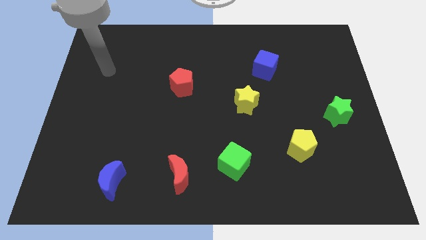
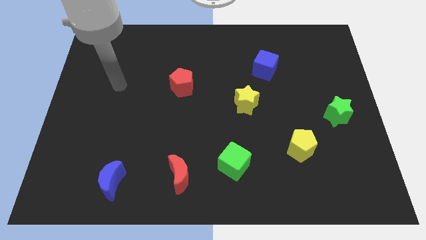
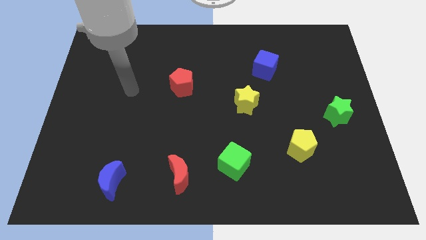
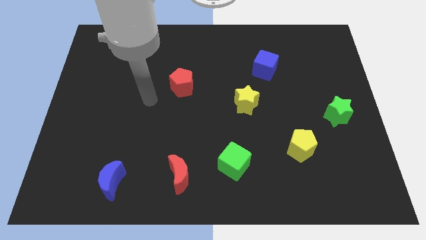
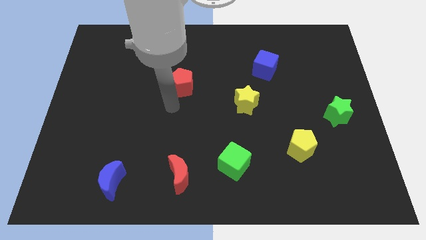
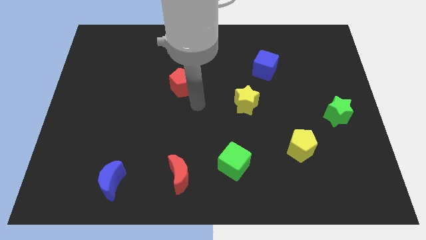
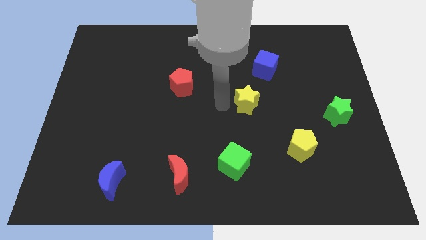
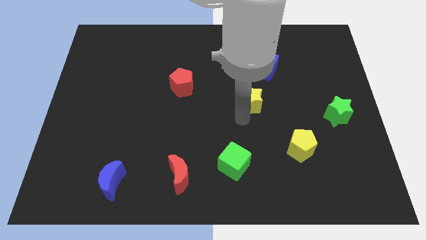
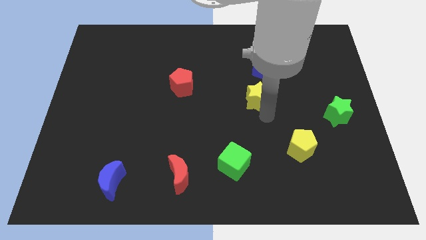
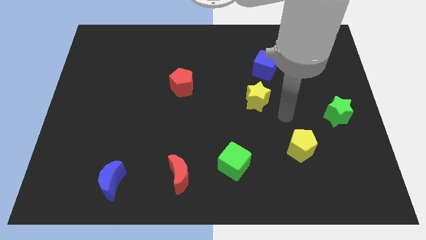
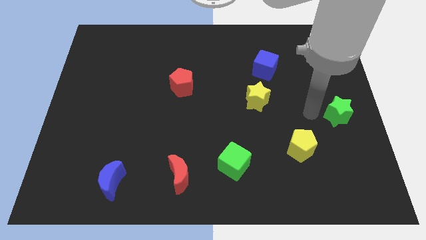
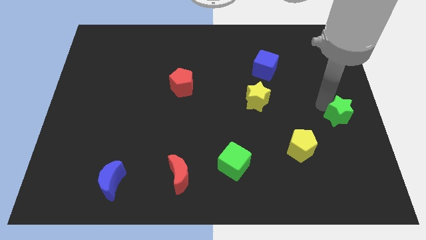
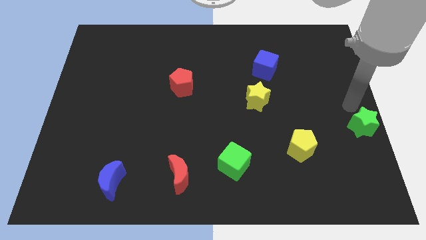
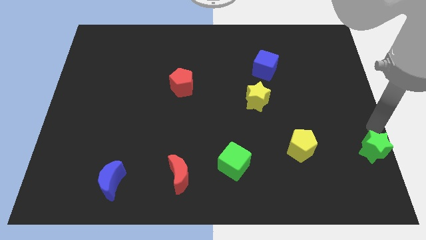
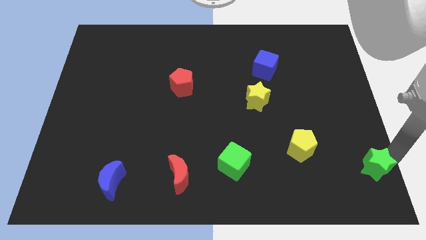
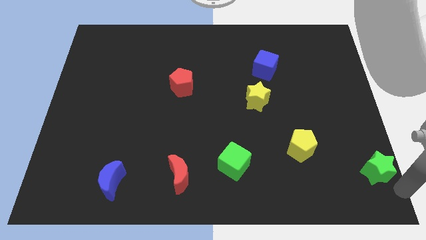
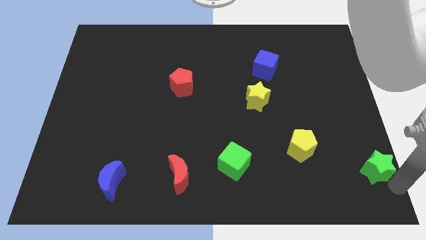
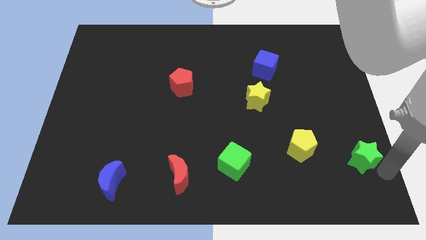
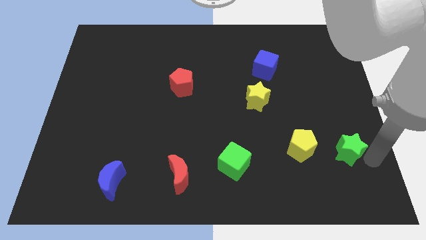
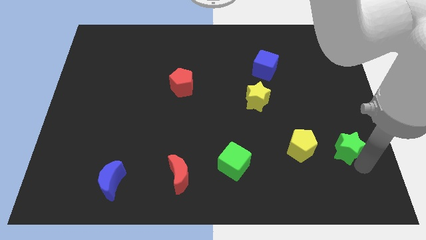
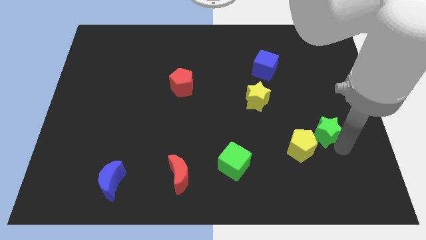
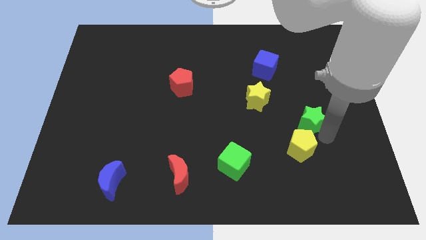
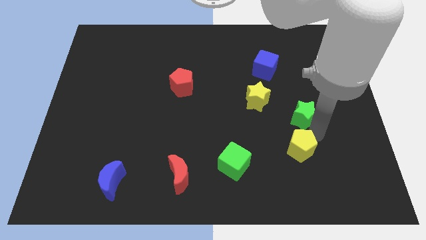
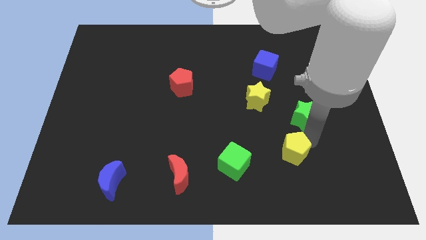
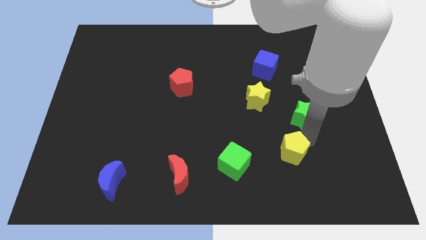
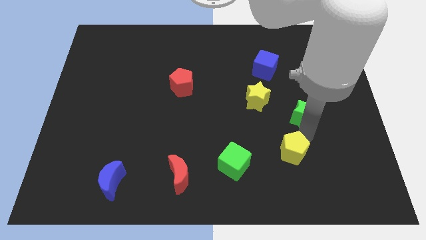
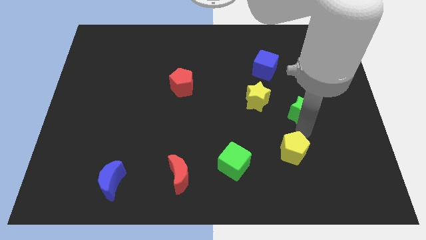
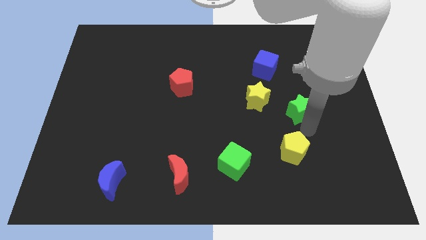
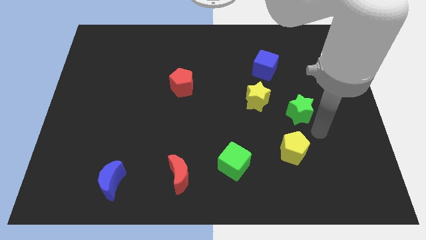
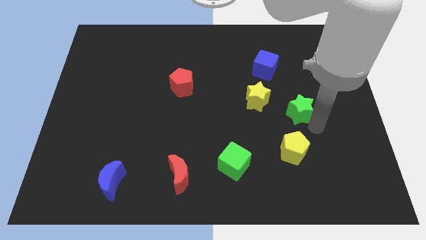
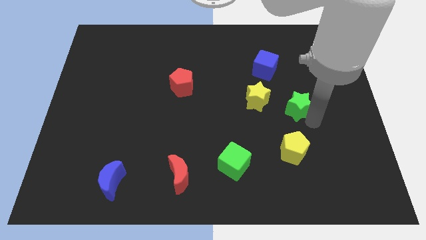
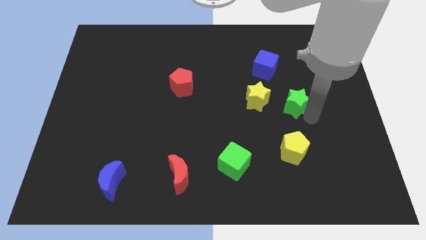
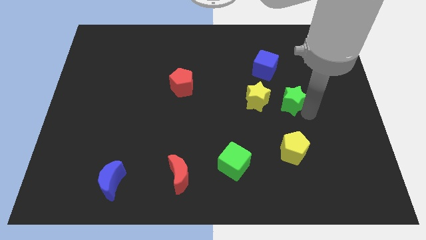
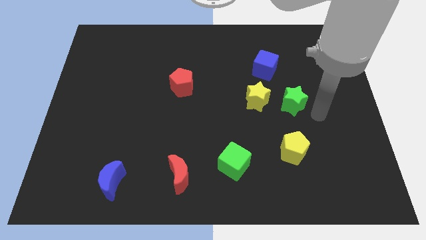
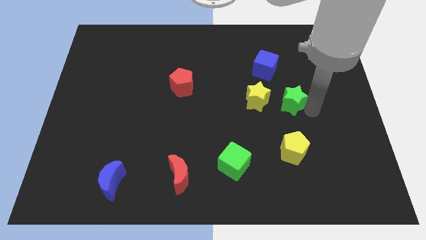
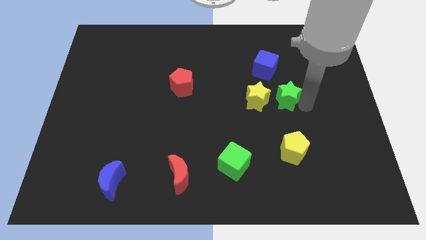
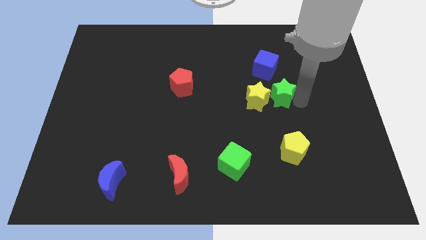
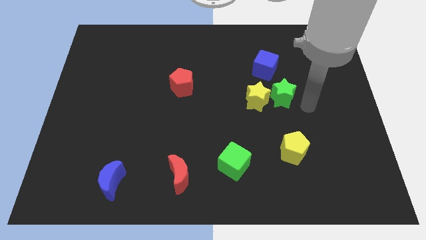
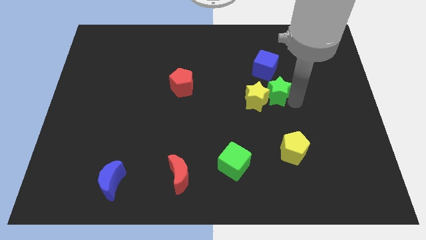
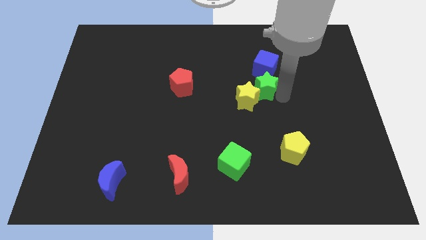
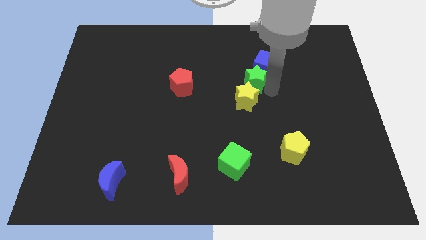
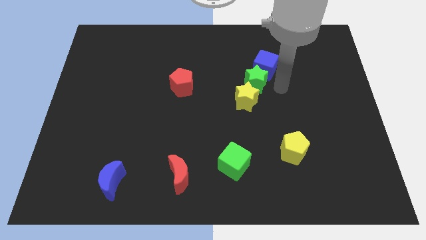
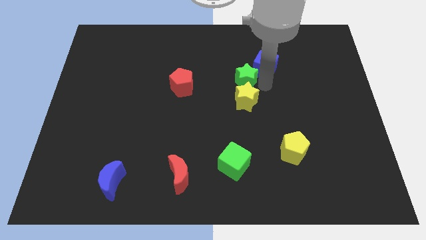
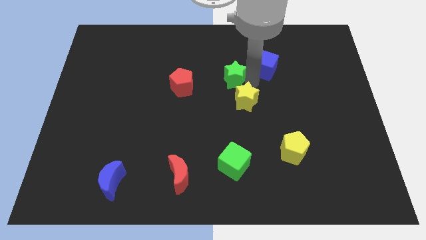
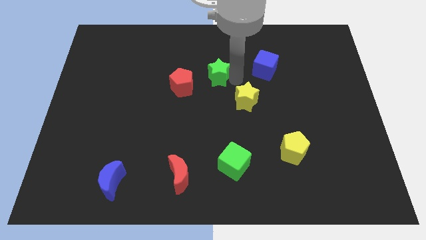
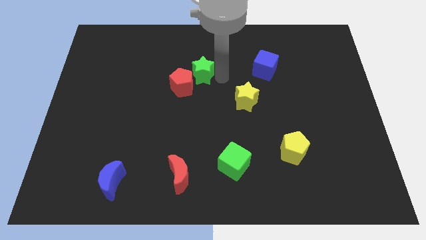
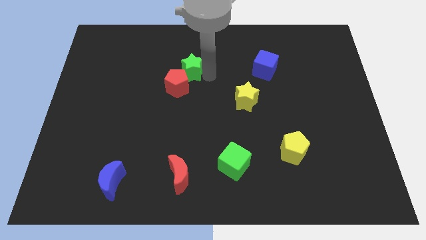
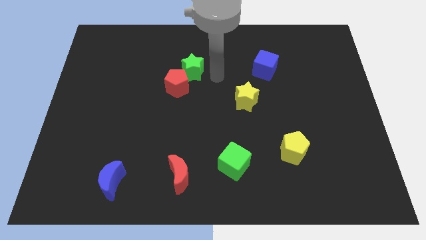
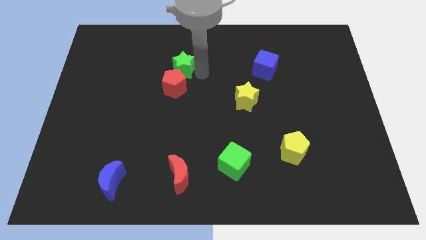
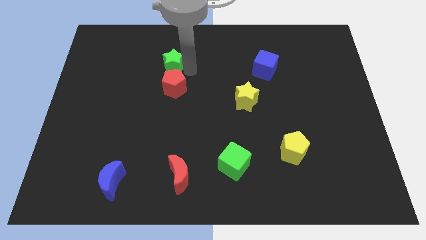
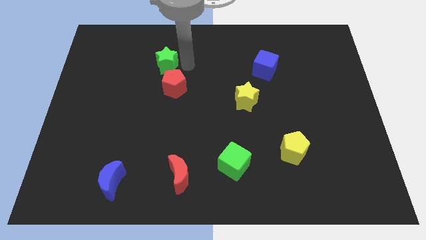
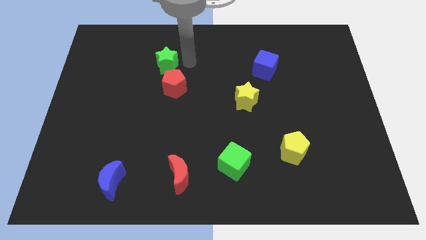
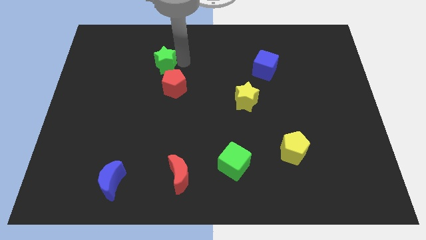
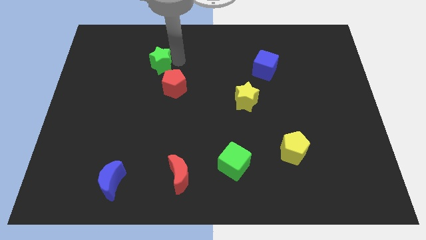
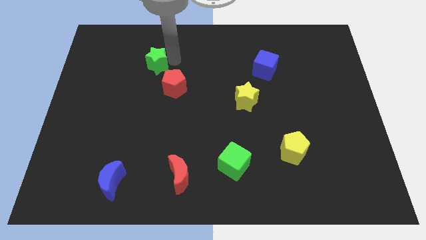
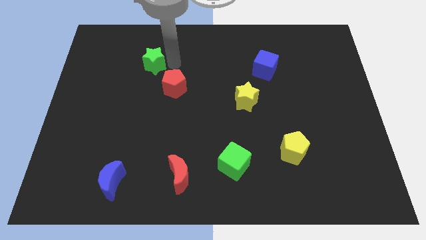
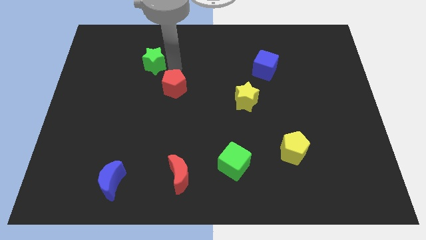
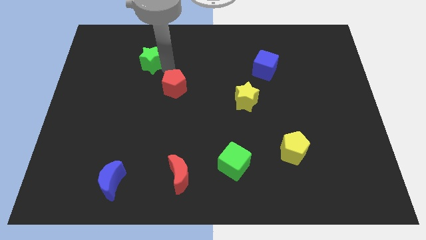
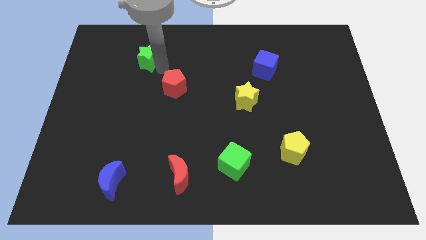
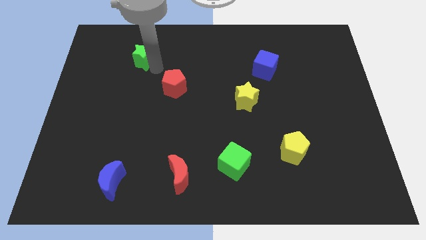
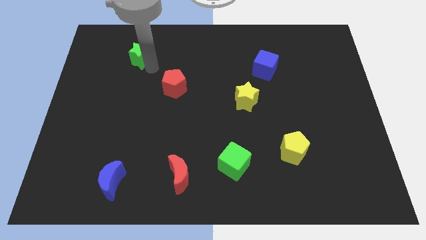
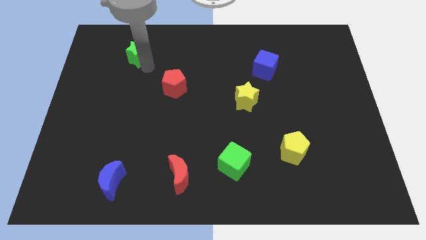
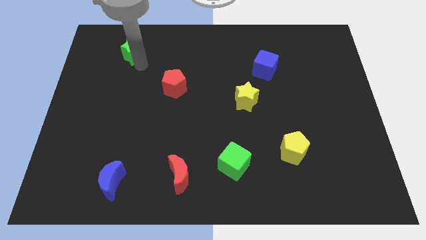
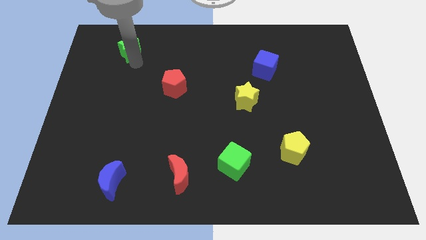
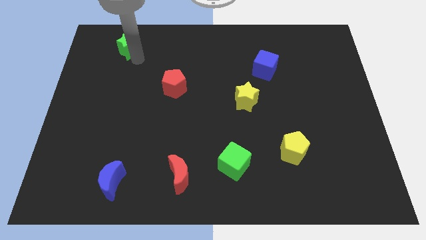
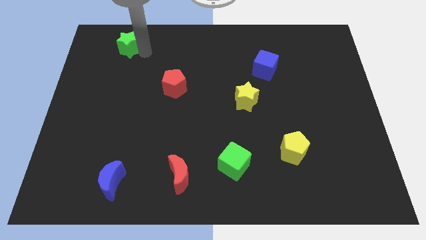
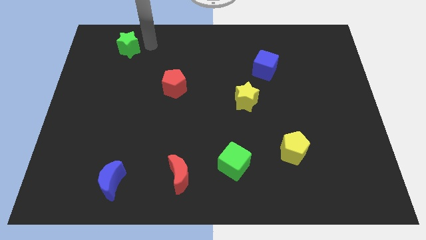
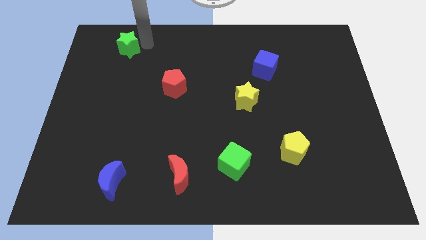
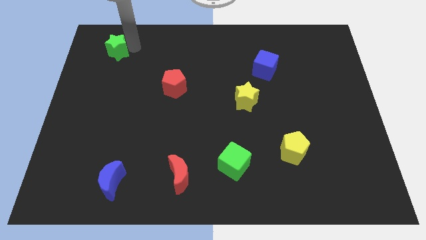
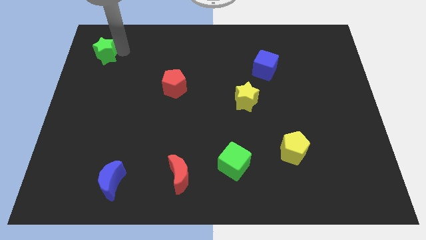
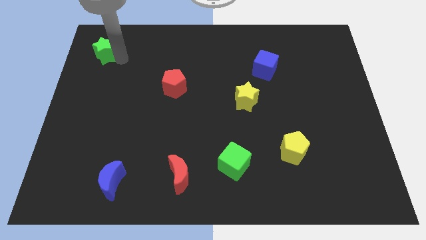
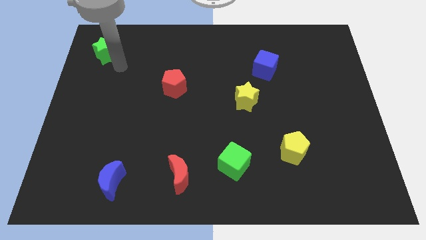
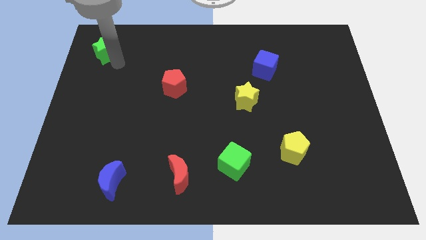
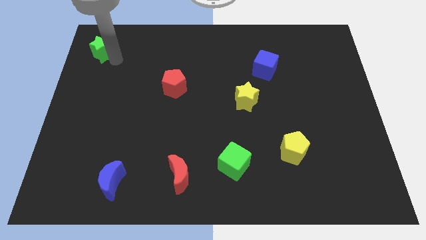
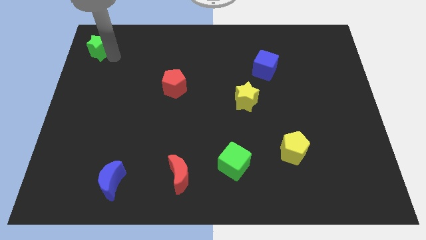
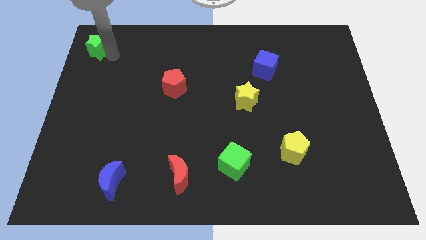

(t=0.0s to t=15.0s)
put the green star to the top left
